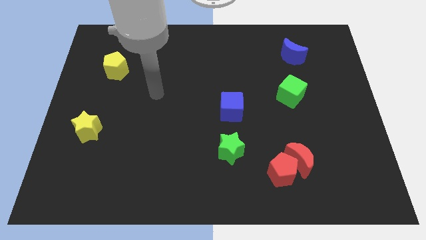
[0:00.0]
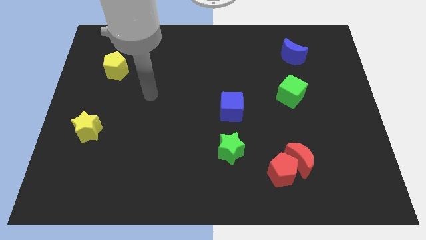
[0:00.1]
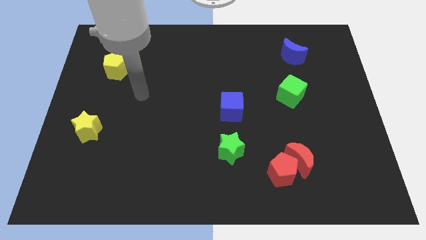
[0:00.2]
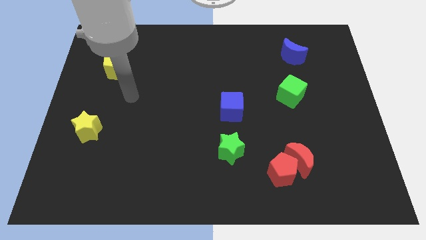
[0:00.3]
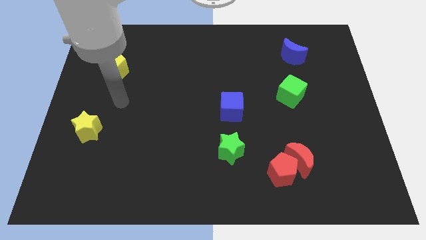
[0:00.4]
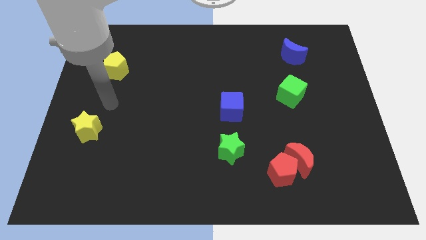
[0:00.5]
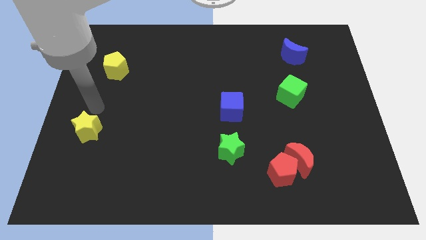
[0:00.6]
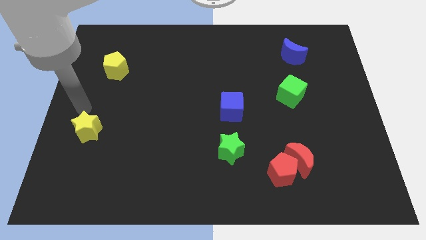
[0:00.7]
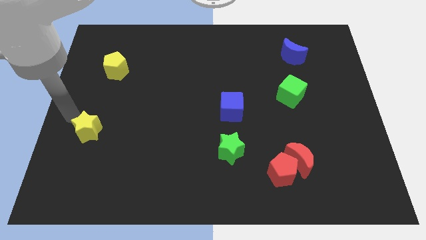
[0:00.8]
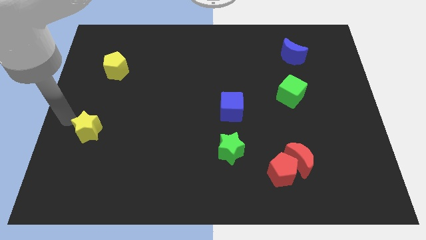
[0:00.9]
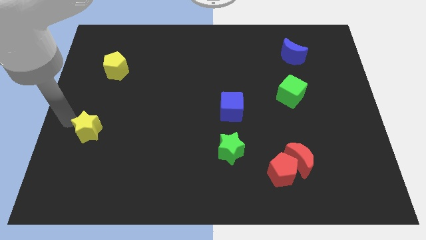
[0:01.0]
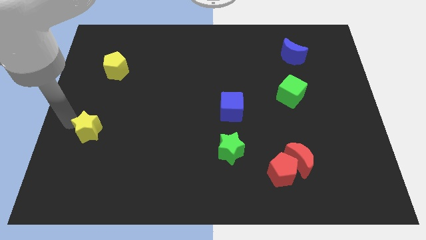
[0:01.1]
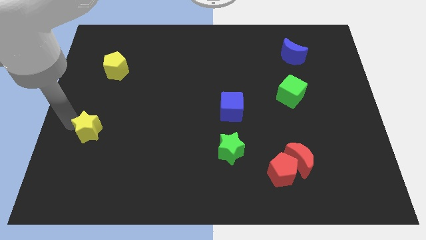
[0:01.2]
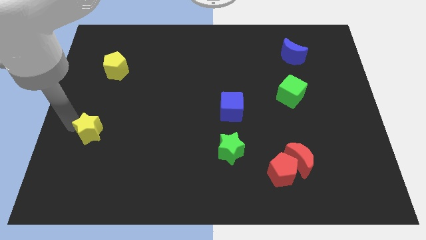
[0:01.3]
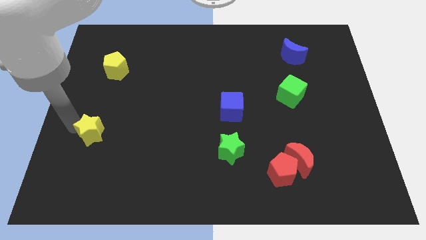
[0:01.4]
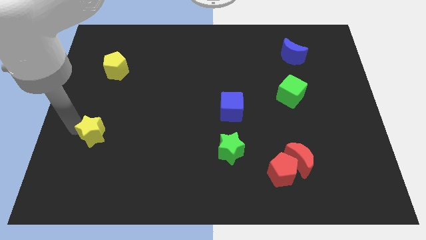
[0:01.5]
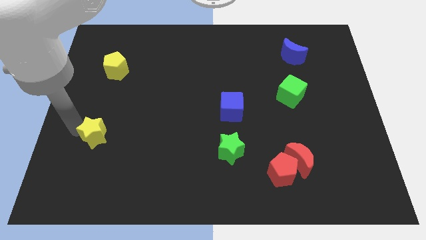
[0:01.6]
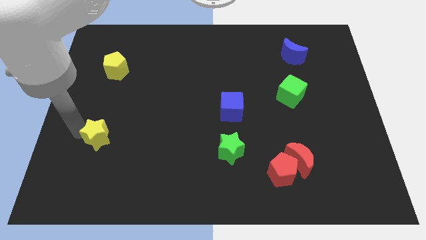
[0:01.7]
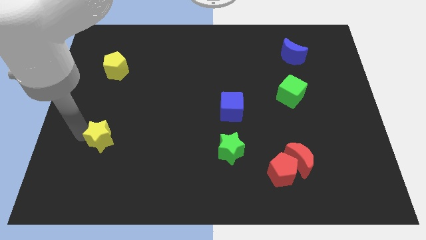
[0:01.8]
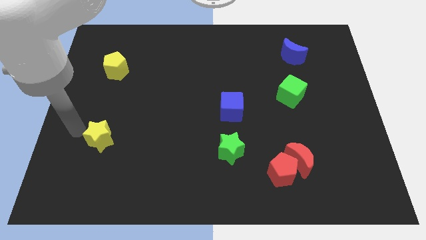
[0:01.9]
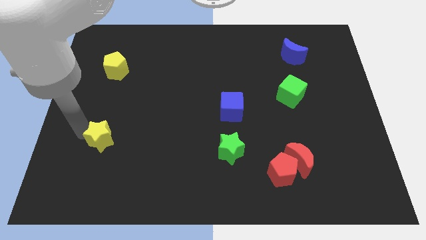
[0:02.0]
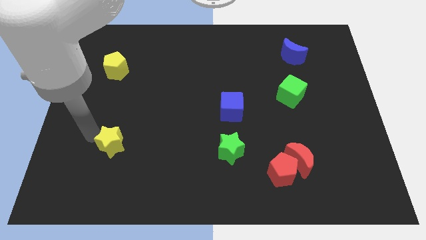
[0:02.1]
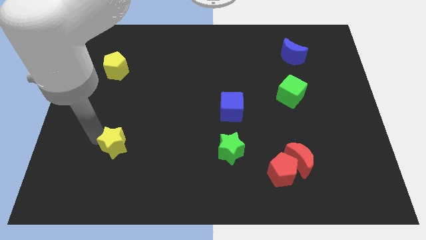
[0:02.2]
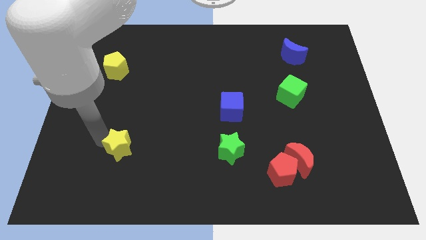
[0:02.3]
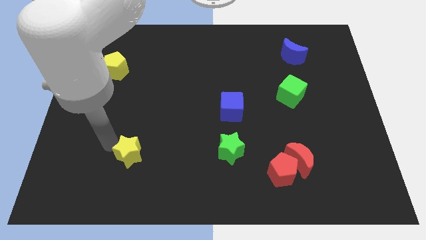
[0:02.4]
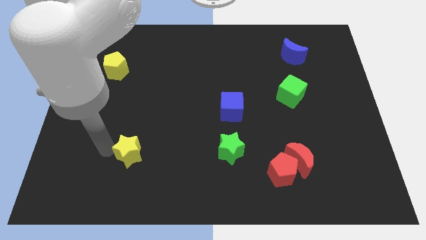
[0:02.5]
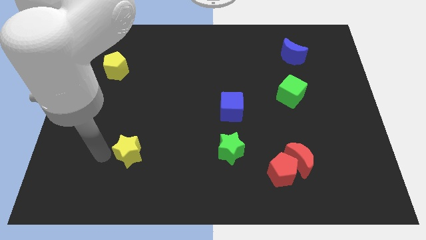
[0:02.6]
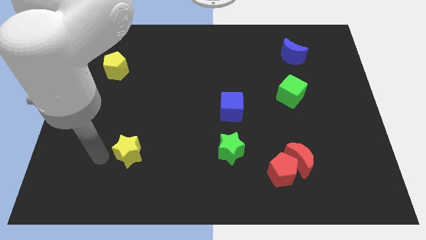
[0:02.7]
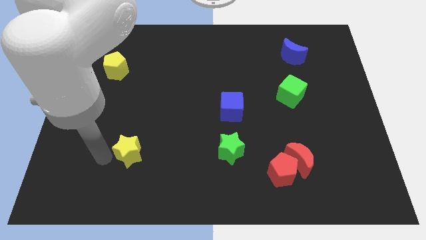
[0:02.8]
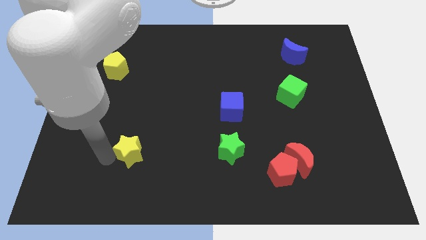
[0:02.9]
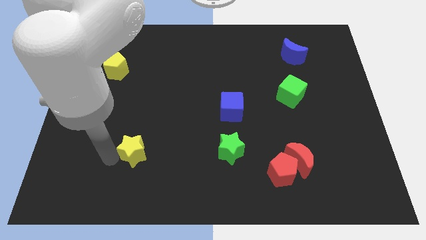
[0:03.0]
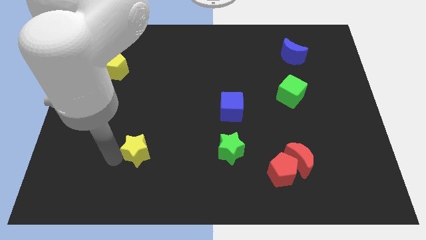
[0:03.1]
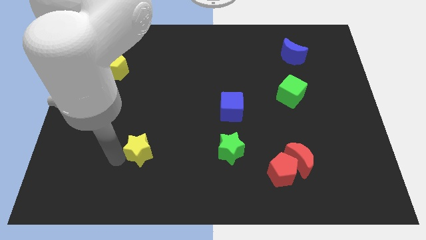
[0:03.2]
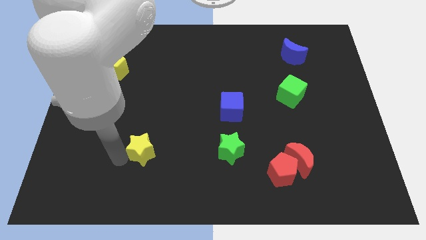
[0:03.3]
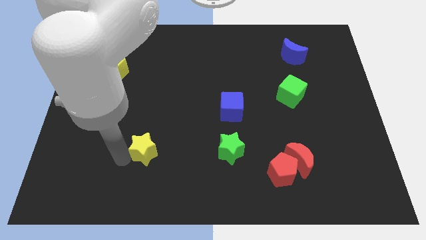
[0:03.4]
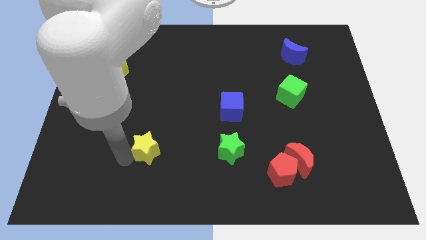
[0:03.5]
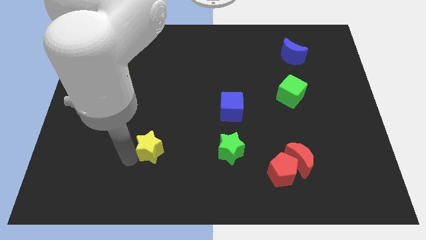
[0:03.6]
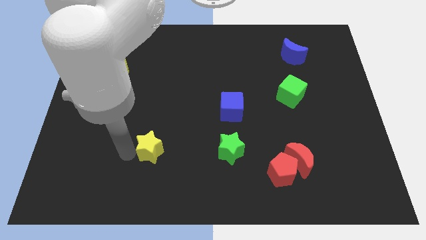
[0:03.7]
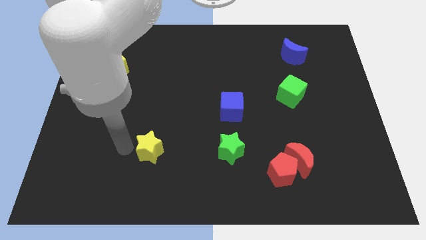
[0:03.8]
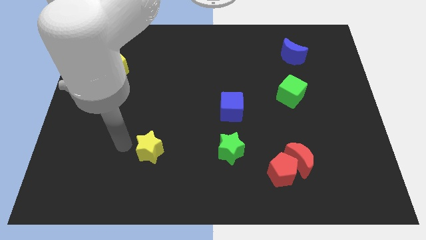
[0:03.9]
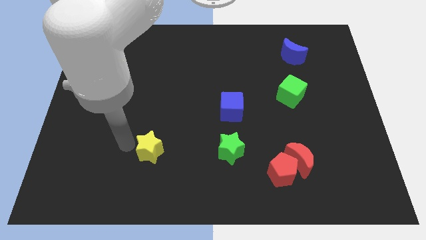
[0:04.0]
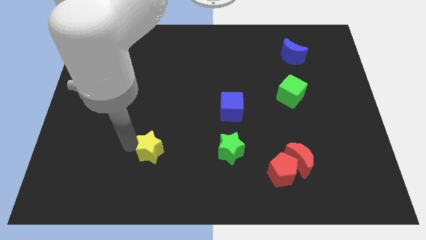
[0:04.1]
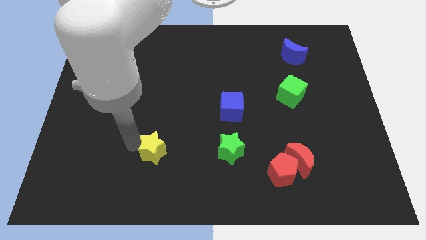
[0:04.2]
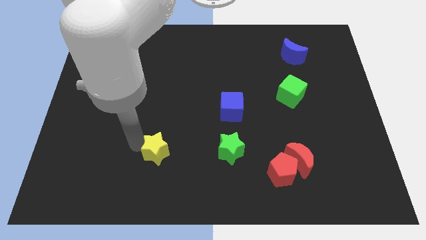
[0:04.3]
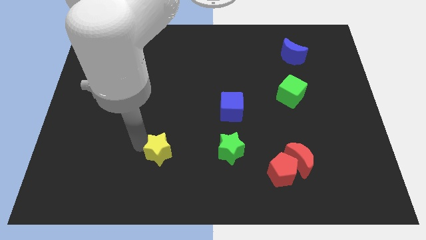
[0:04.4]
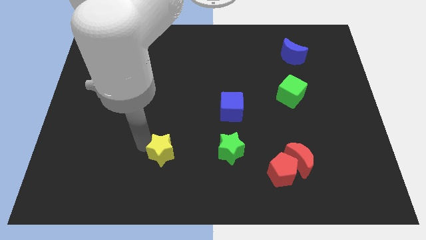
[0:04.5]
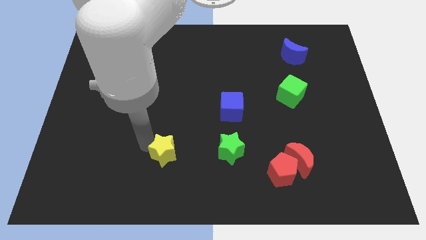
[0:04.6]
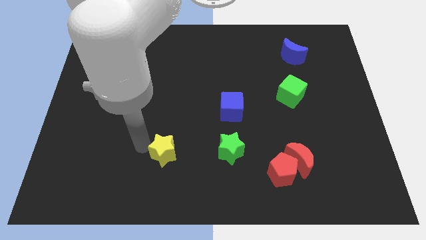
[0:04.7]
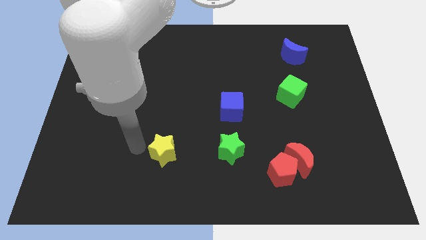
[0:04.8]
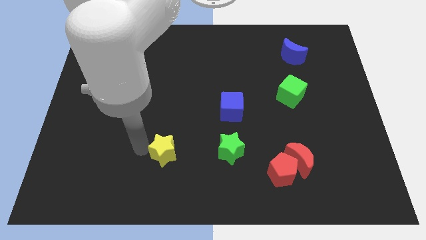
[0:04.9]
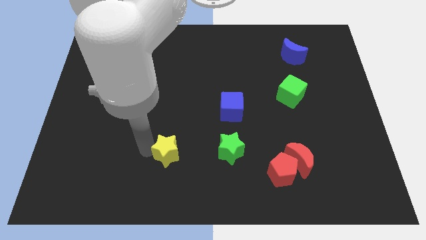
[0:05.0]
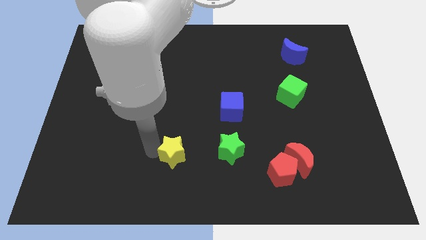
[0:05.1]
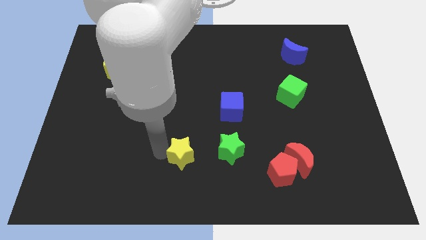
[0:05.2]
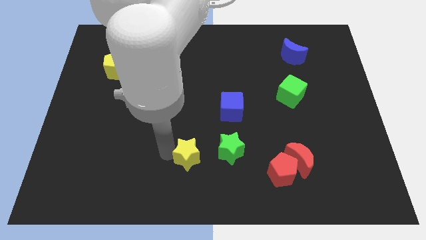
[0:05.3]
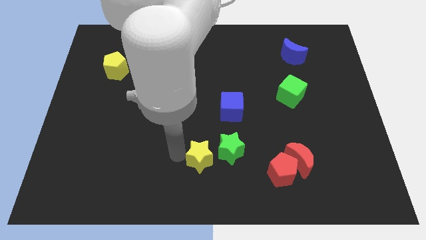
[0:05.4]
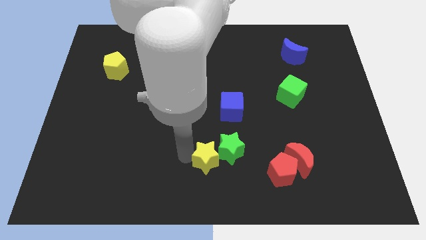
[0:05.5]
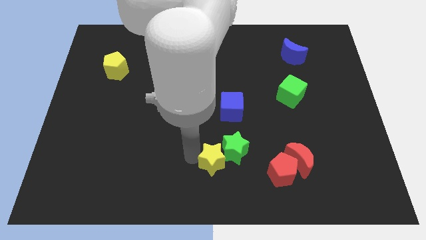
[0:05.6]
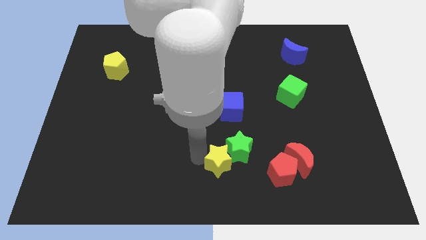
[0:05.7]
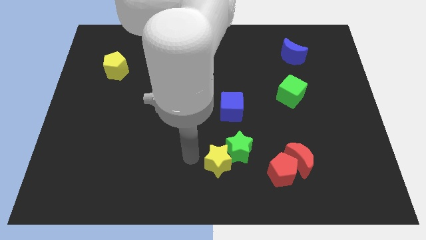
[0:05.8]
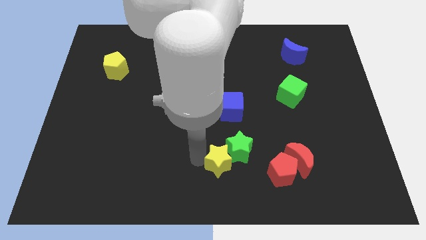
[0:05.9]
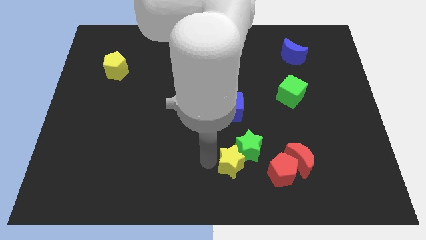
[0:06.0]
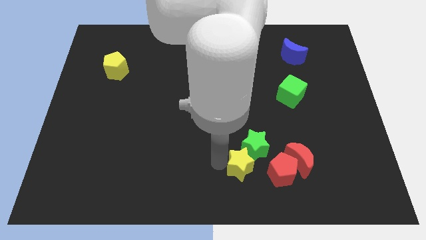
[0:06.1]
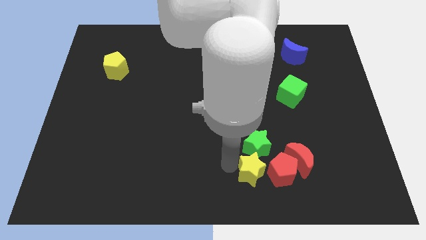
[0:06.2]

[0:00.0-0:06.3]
put the yellow star to the bottom right of the green star

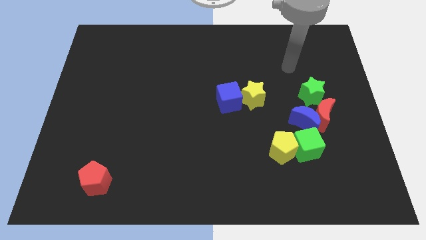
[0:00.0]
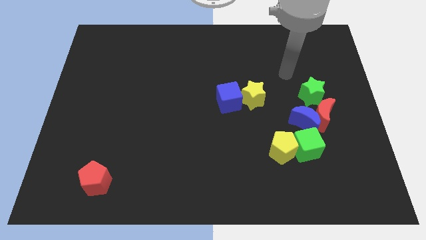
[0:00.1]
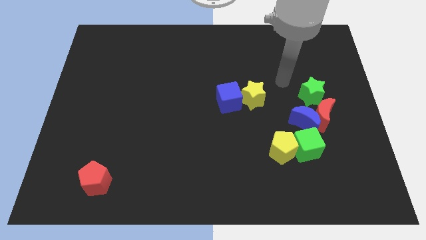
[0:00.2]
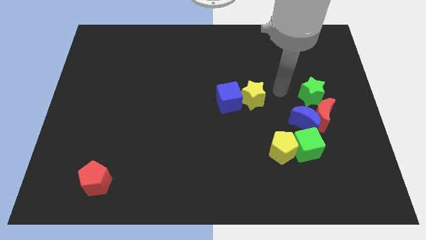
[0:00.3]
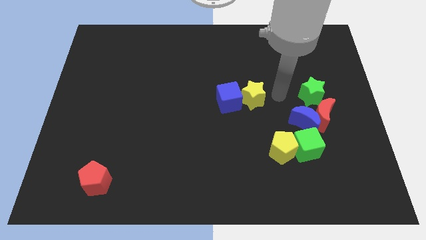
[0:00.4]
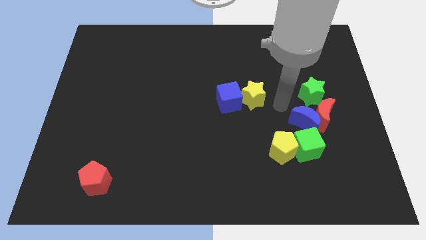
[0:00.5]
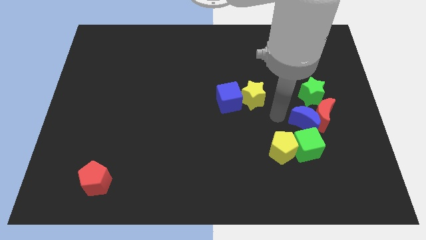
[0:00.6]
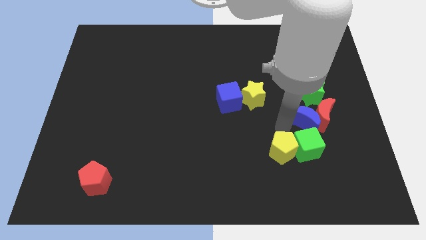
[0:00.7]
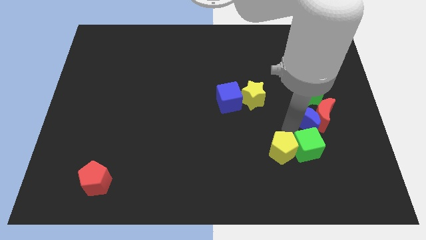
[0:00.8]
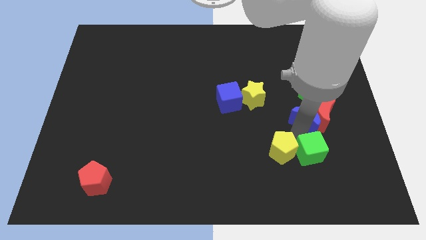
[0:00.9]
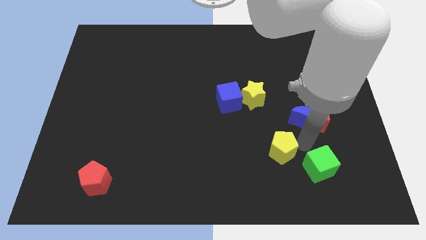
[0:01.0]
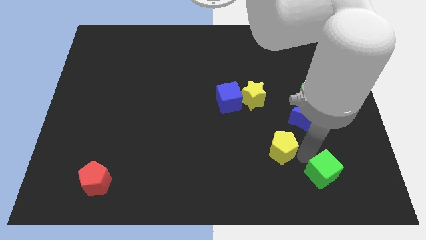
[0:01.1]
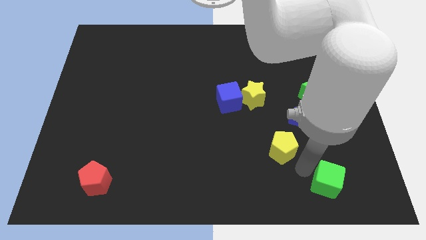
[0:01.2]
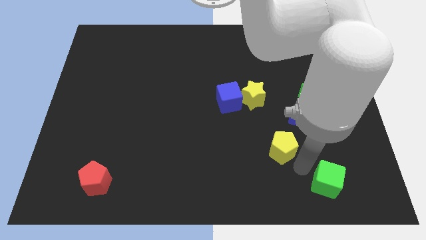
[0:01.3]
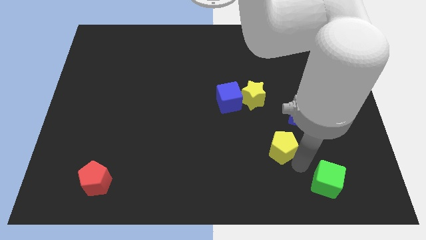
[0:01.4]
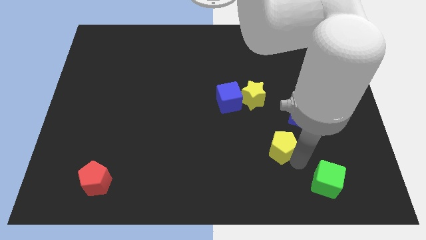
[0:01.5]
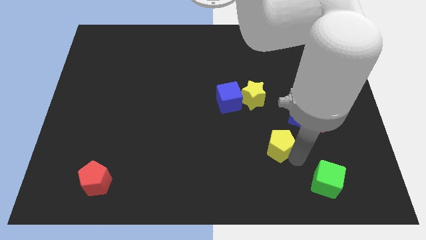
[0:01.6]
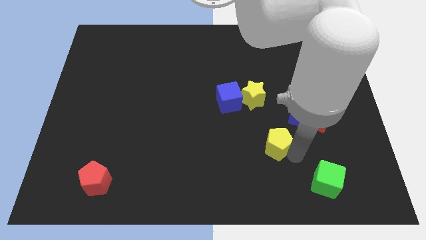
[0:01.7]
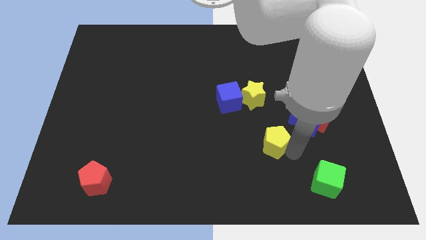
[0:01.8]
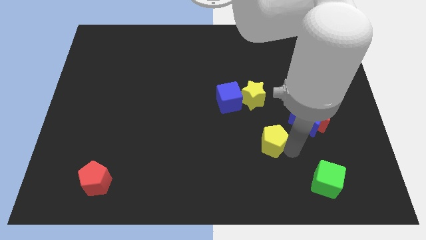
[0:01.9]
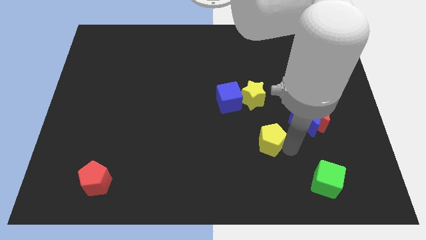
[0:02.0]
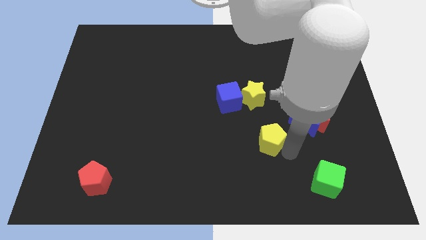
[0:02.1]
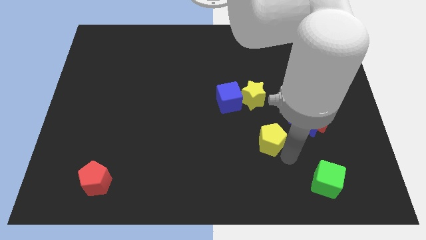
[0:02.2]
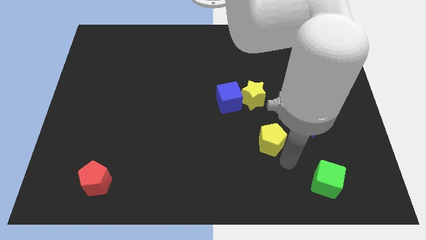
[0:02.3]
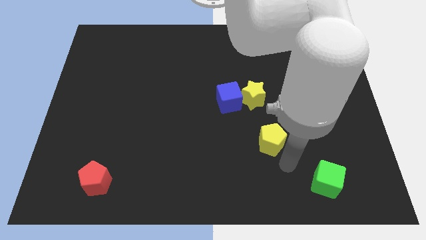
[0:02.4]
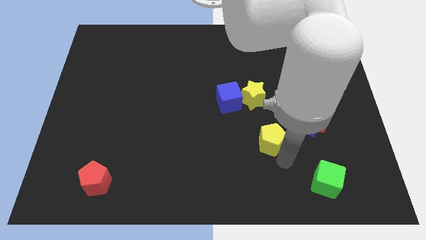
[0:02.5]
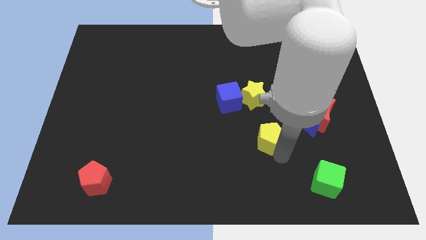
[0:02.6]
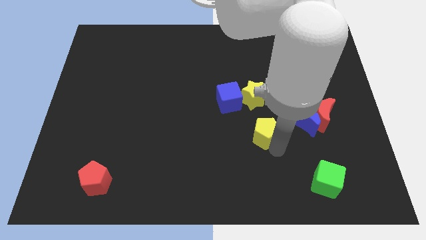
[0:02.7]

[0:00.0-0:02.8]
put the yellow pentagon to the bottom right of the blue cube
